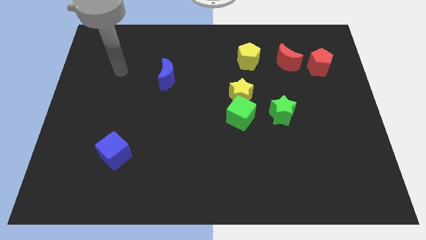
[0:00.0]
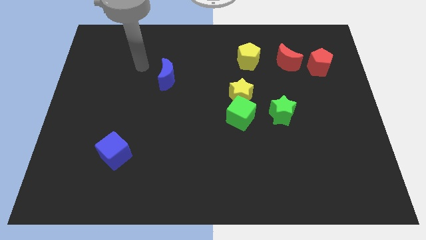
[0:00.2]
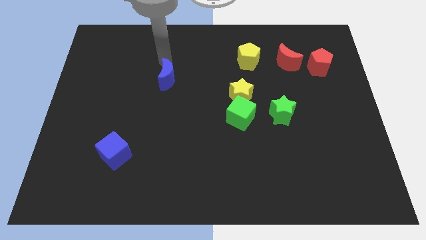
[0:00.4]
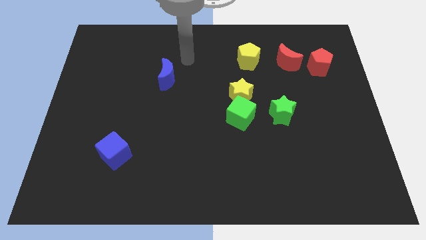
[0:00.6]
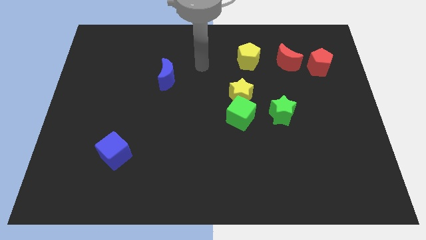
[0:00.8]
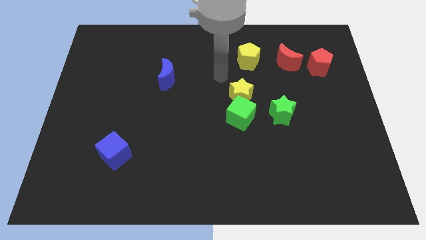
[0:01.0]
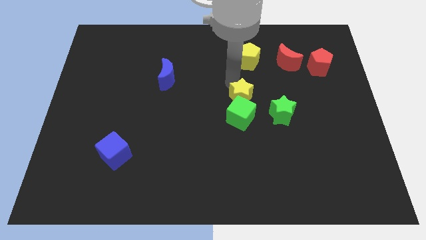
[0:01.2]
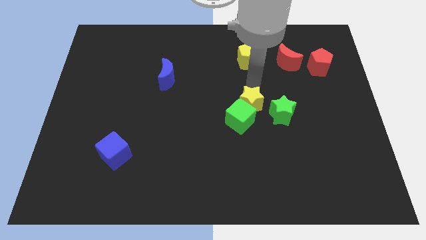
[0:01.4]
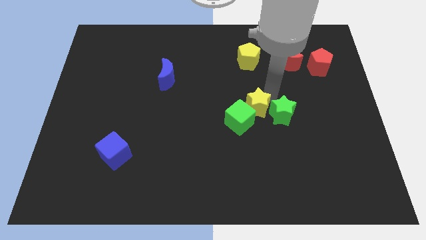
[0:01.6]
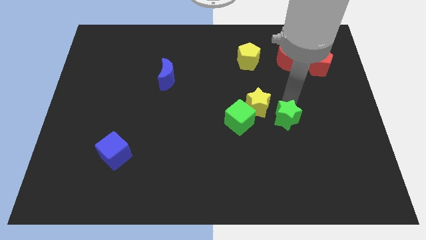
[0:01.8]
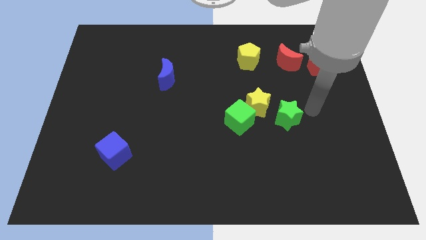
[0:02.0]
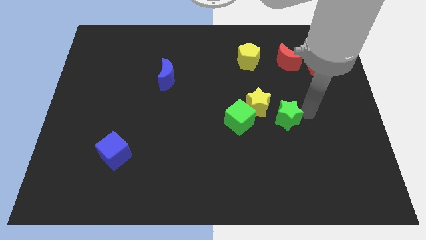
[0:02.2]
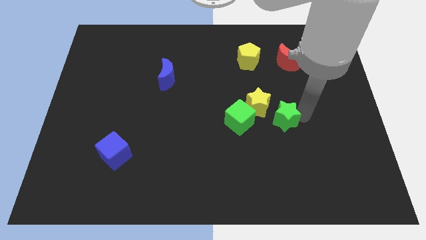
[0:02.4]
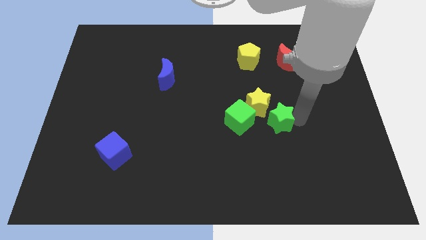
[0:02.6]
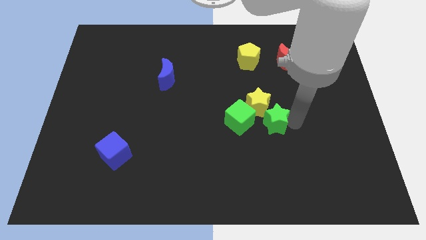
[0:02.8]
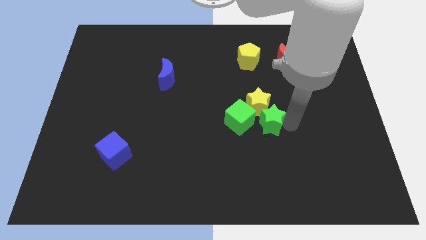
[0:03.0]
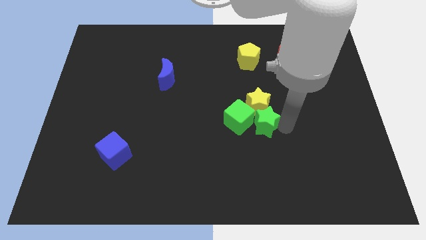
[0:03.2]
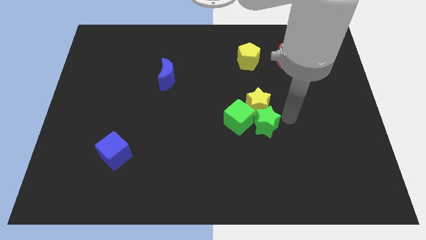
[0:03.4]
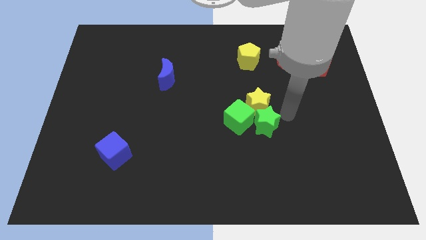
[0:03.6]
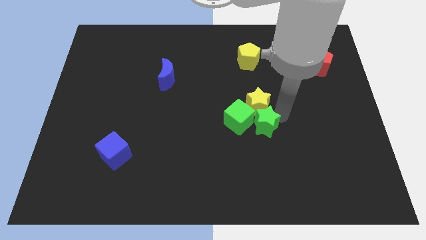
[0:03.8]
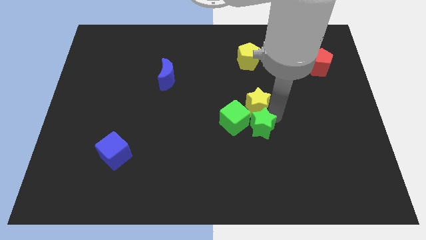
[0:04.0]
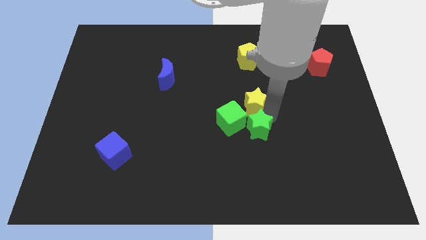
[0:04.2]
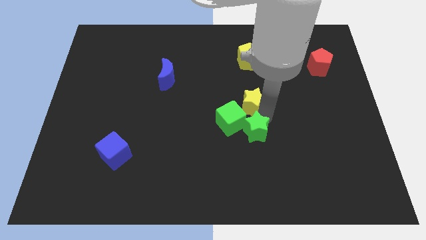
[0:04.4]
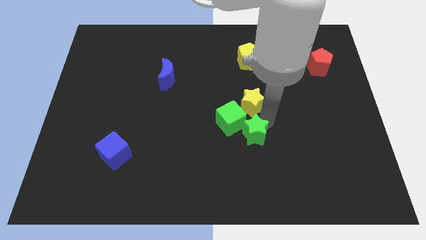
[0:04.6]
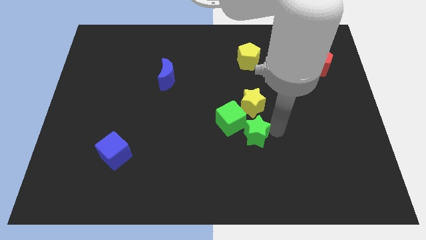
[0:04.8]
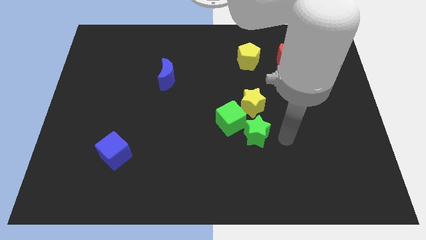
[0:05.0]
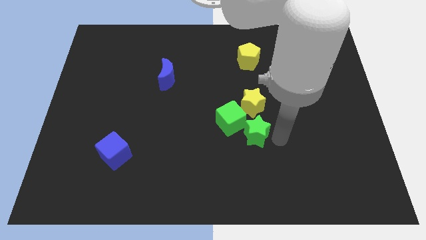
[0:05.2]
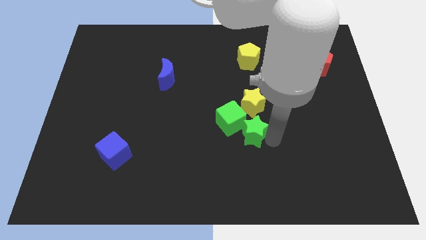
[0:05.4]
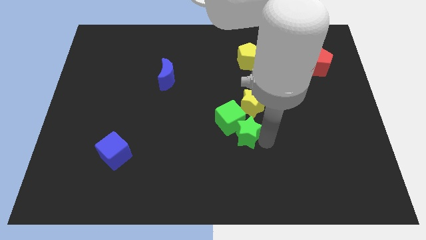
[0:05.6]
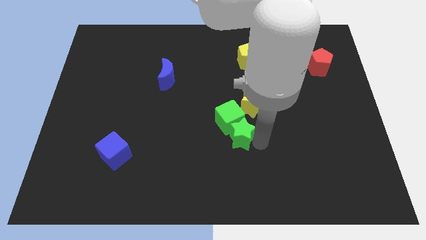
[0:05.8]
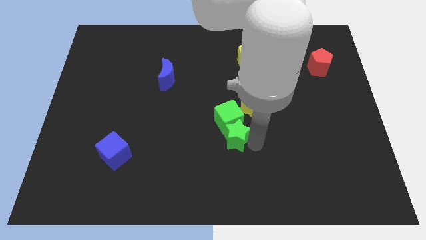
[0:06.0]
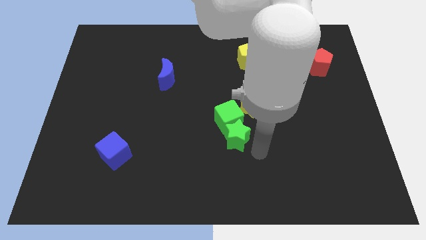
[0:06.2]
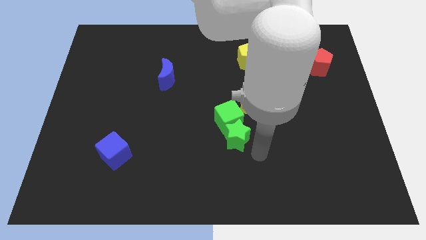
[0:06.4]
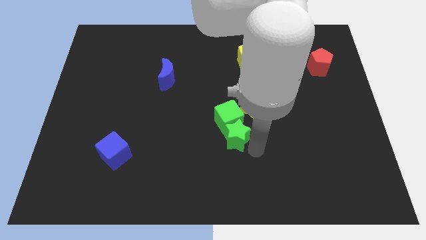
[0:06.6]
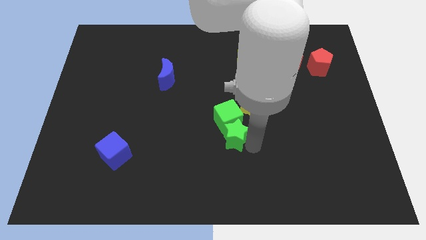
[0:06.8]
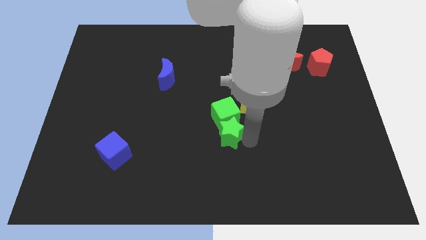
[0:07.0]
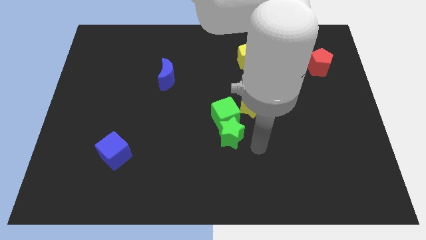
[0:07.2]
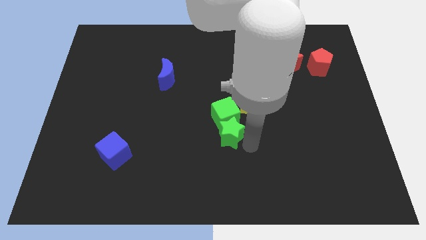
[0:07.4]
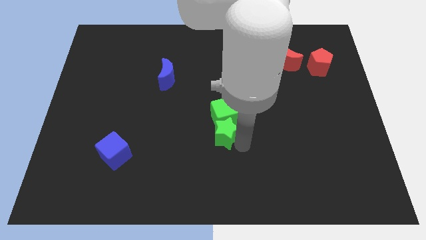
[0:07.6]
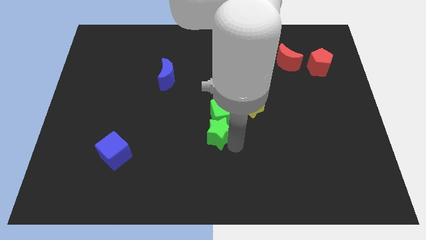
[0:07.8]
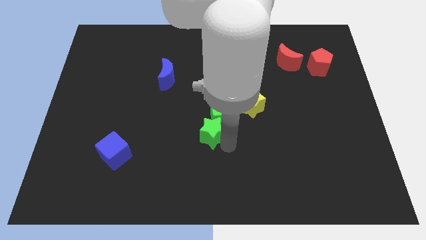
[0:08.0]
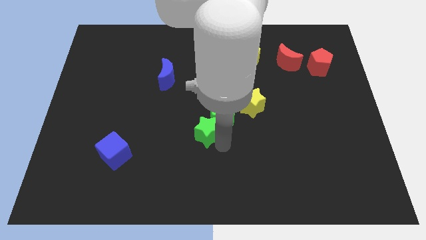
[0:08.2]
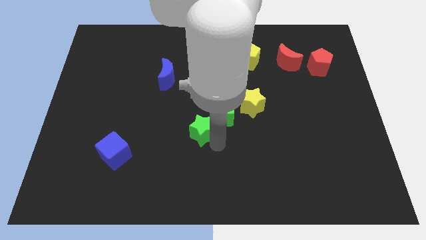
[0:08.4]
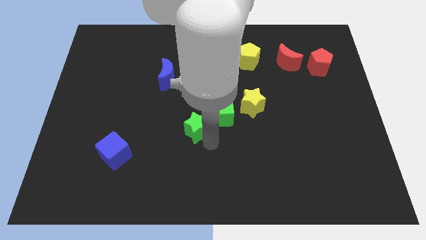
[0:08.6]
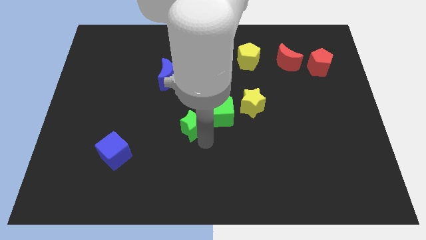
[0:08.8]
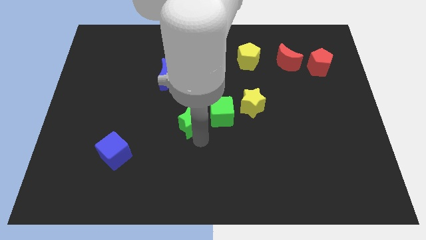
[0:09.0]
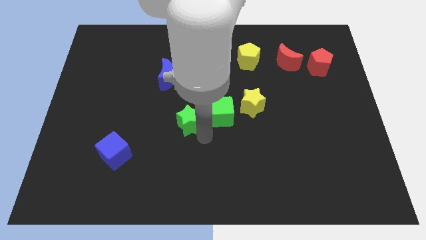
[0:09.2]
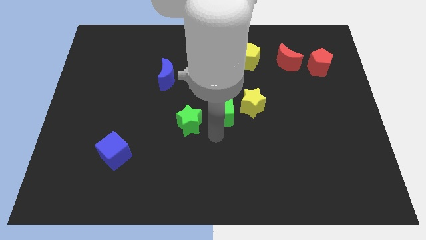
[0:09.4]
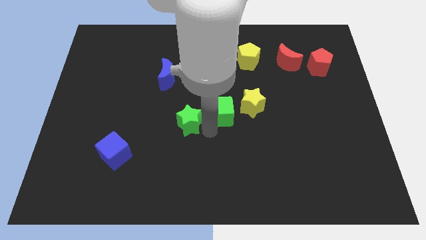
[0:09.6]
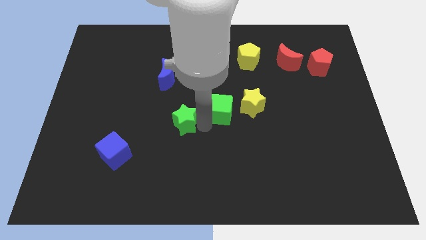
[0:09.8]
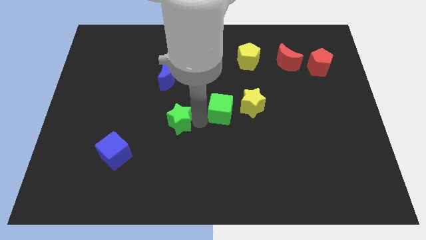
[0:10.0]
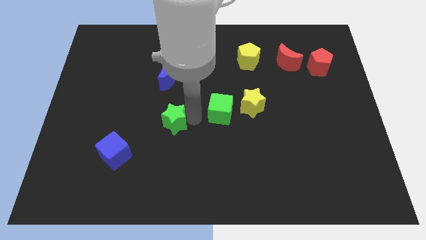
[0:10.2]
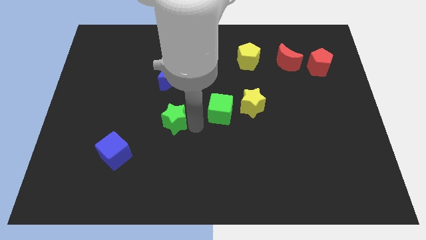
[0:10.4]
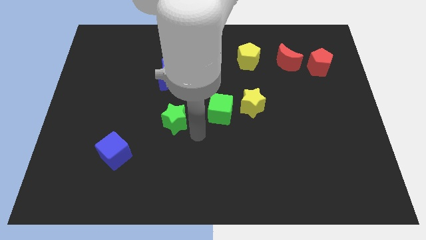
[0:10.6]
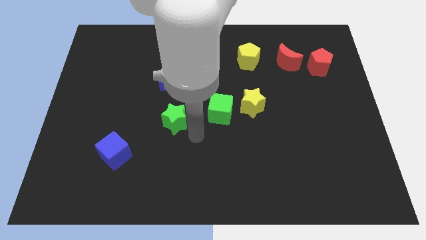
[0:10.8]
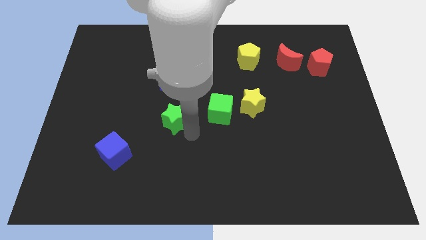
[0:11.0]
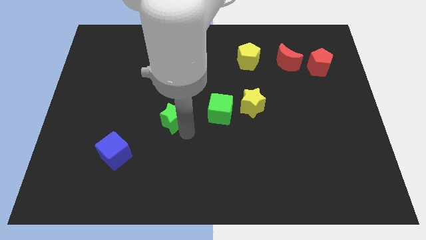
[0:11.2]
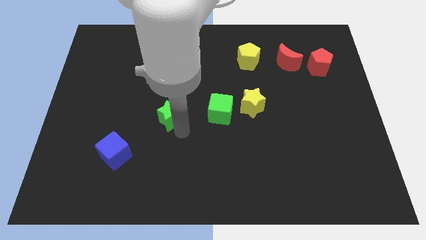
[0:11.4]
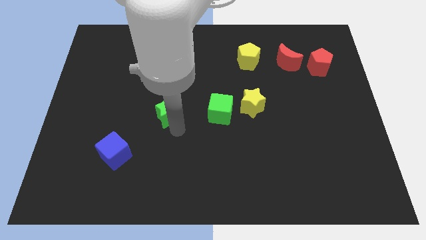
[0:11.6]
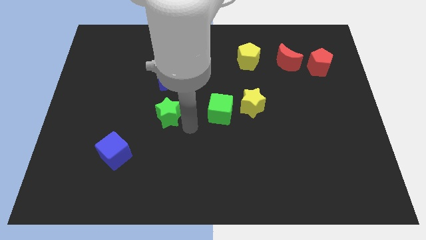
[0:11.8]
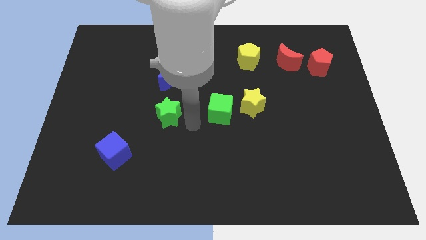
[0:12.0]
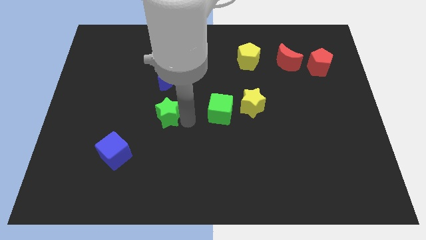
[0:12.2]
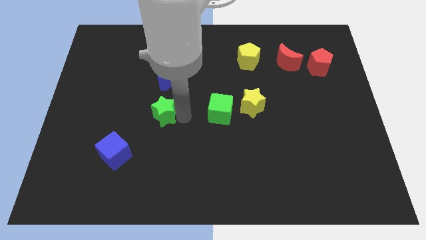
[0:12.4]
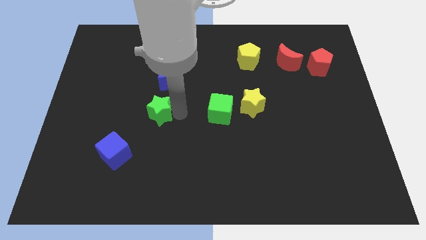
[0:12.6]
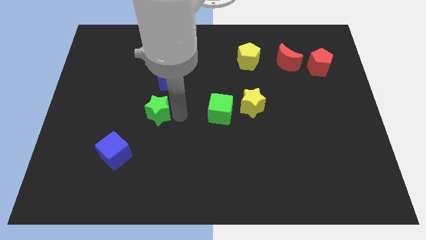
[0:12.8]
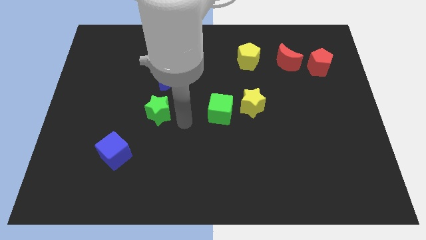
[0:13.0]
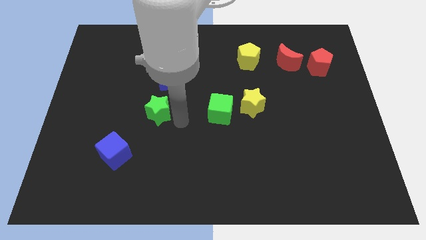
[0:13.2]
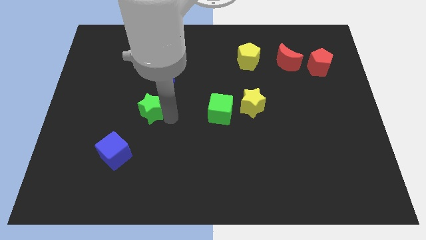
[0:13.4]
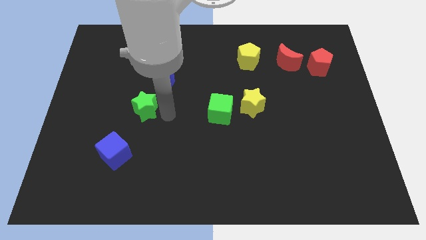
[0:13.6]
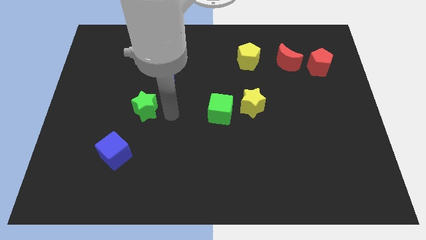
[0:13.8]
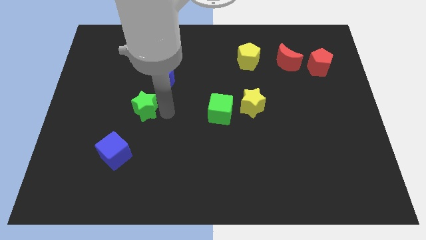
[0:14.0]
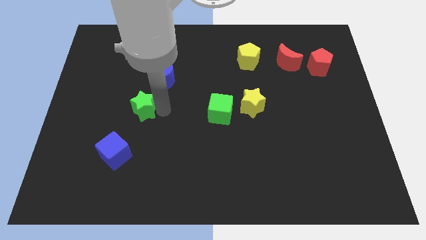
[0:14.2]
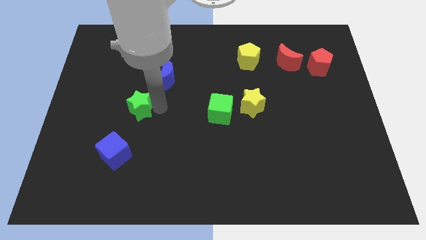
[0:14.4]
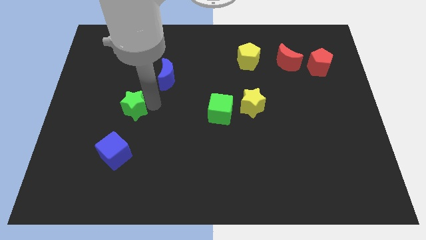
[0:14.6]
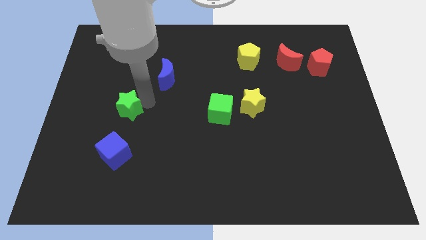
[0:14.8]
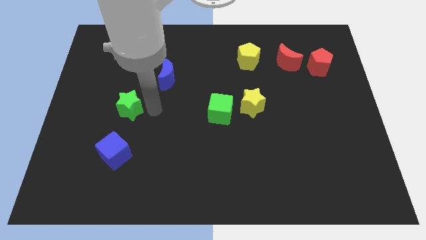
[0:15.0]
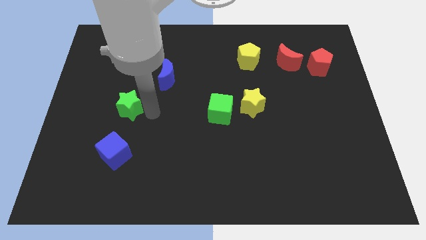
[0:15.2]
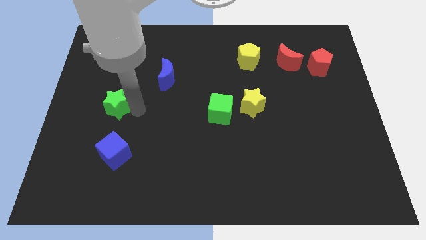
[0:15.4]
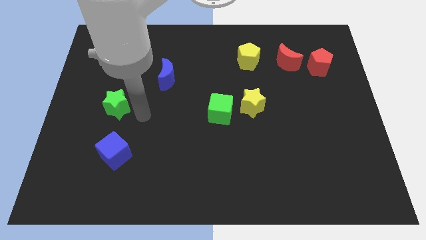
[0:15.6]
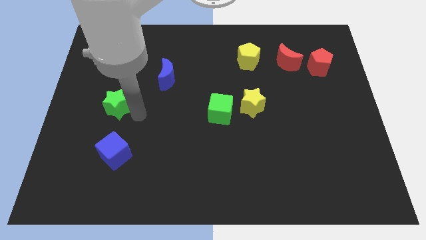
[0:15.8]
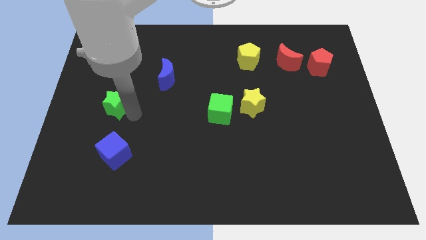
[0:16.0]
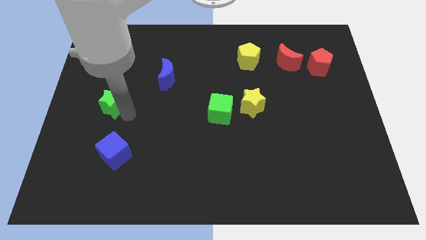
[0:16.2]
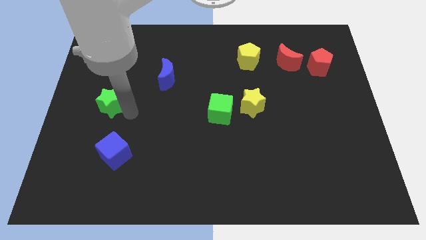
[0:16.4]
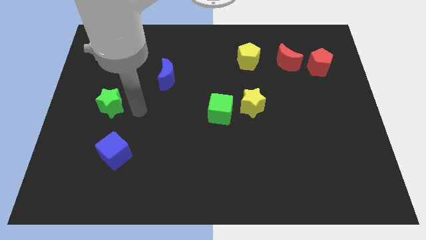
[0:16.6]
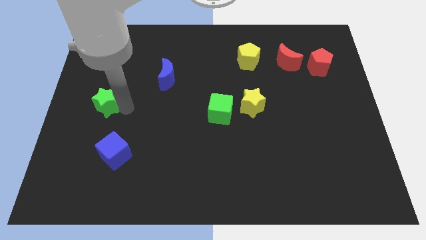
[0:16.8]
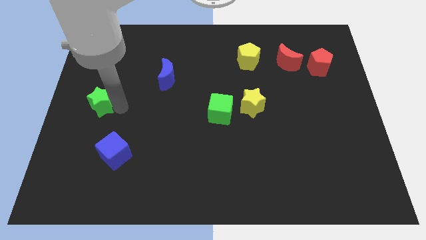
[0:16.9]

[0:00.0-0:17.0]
move the green star to the left side of the board
